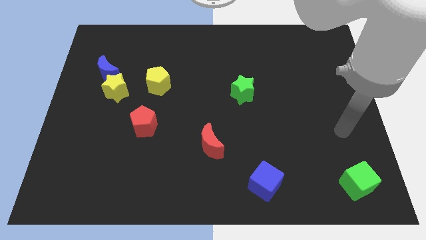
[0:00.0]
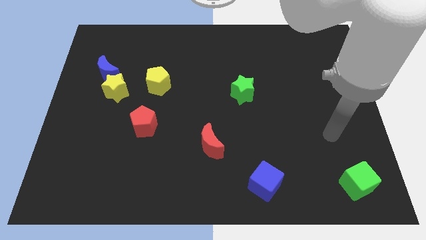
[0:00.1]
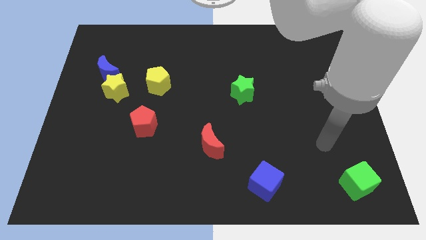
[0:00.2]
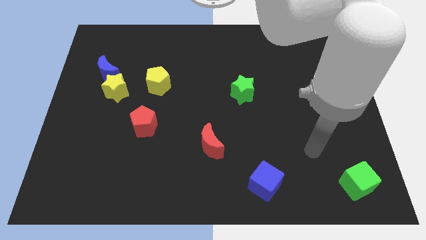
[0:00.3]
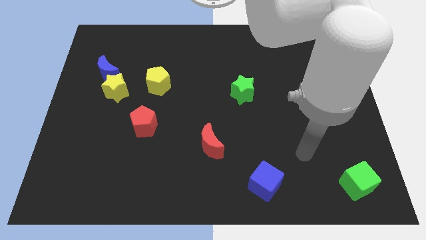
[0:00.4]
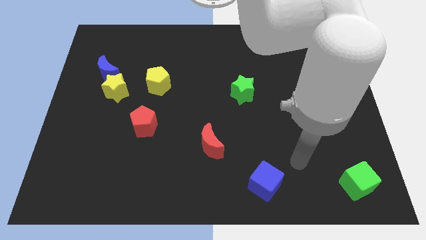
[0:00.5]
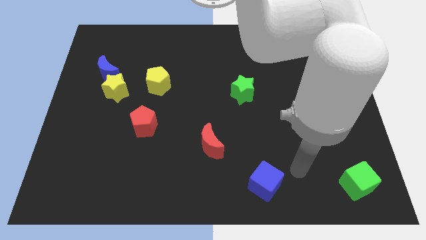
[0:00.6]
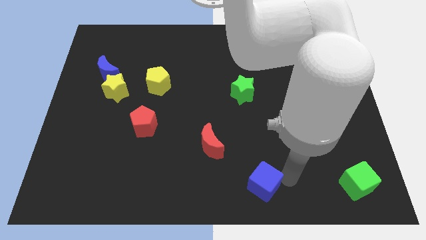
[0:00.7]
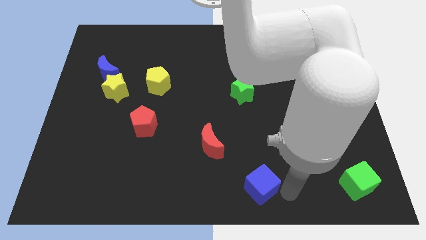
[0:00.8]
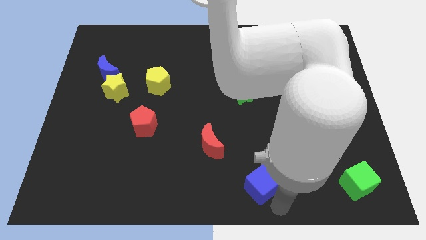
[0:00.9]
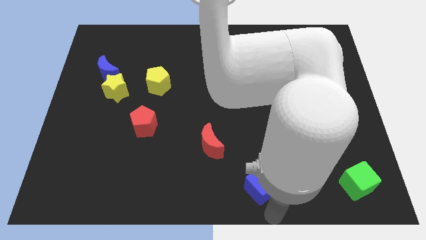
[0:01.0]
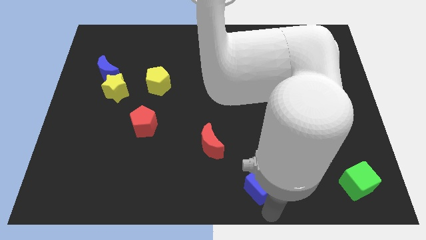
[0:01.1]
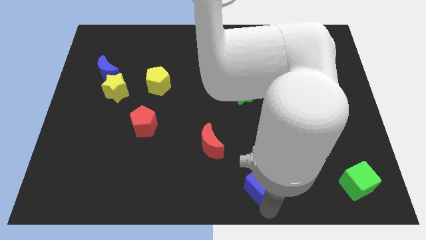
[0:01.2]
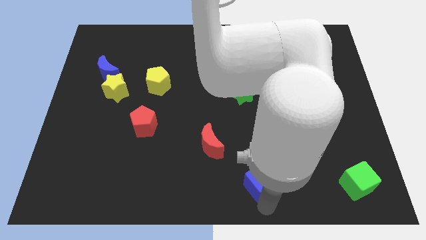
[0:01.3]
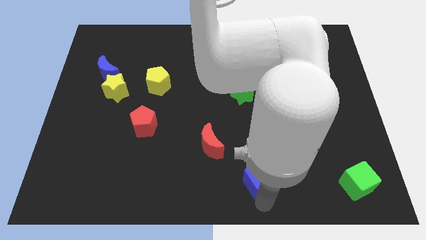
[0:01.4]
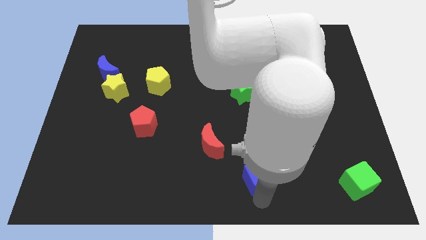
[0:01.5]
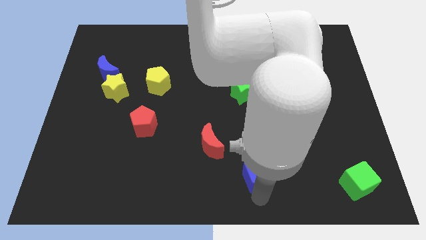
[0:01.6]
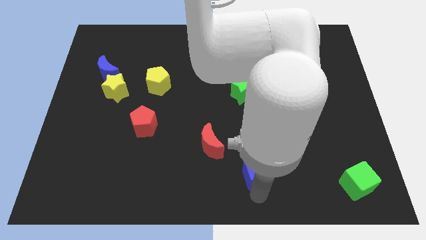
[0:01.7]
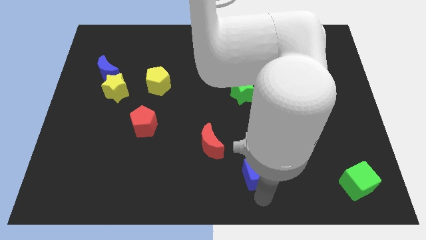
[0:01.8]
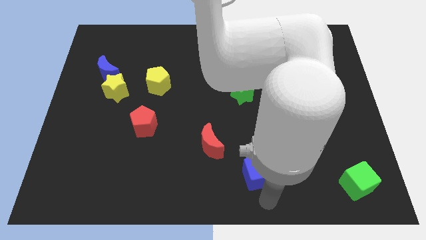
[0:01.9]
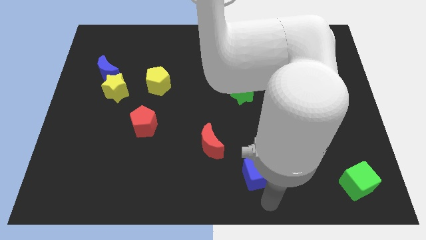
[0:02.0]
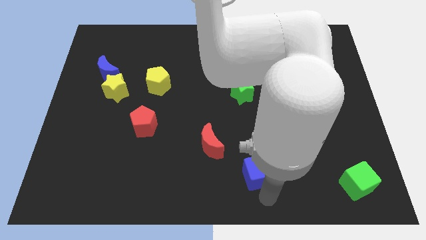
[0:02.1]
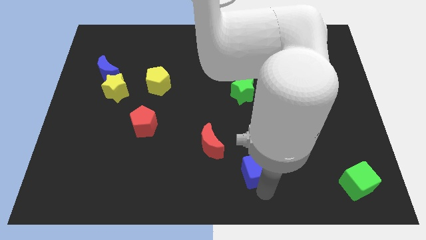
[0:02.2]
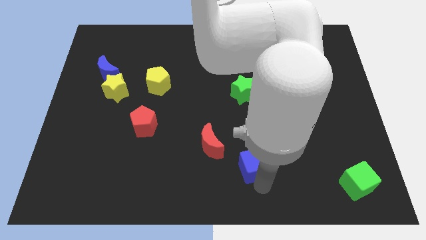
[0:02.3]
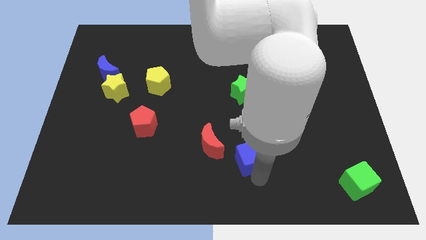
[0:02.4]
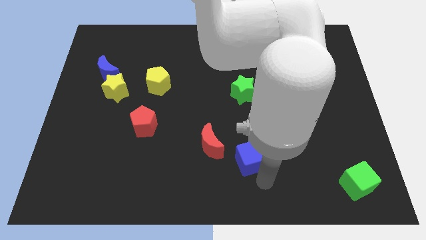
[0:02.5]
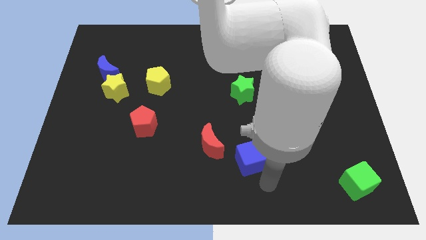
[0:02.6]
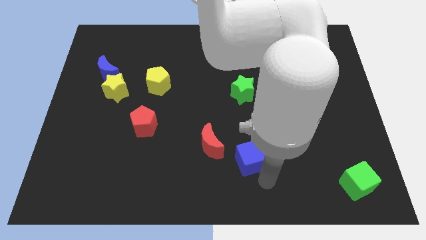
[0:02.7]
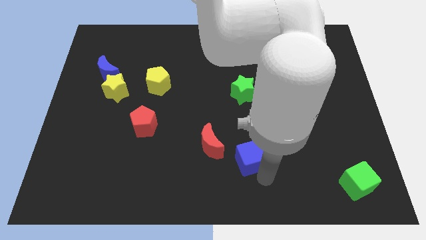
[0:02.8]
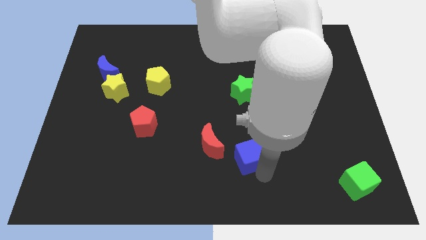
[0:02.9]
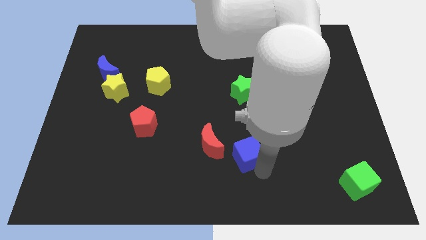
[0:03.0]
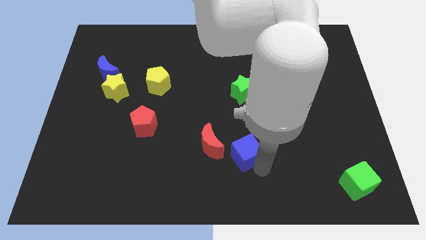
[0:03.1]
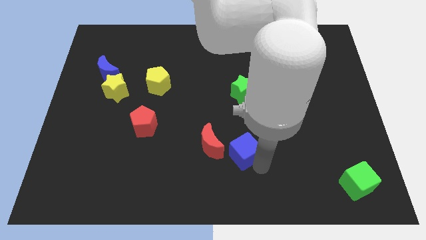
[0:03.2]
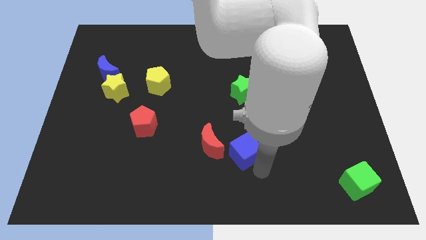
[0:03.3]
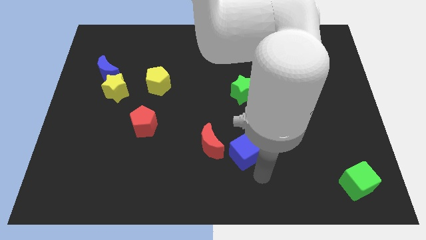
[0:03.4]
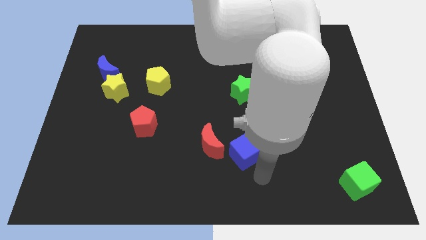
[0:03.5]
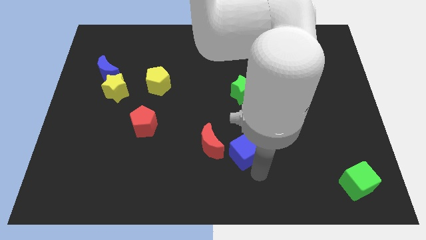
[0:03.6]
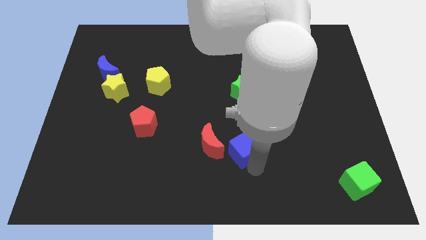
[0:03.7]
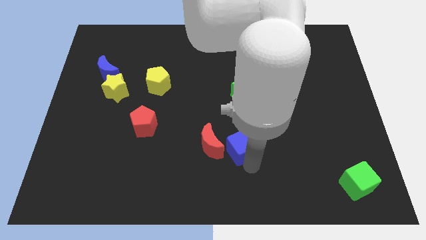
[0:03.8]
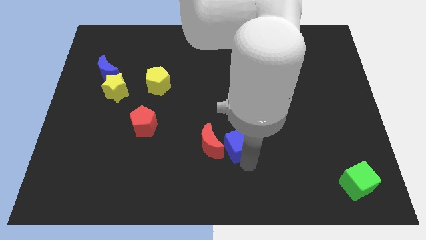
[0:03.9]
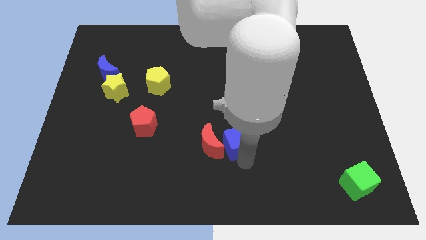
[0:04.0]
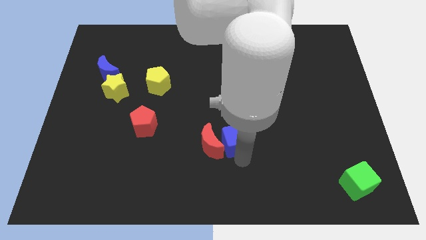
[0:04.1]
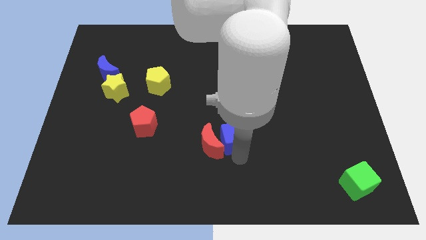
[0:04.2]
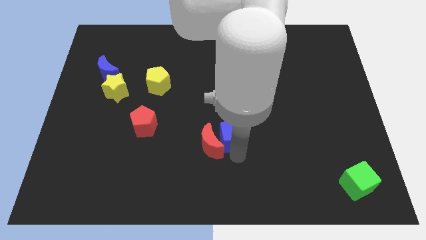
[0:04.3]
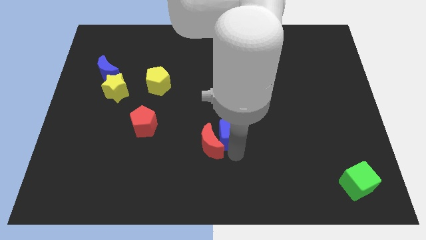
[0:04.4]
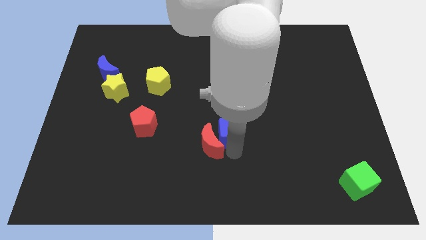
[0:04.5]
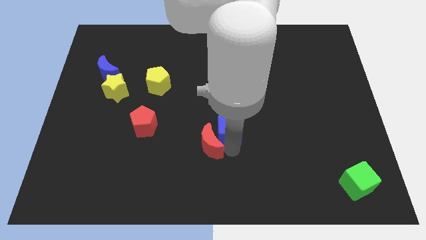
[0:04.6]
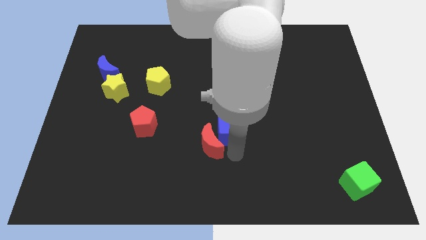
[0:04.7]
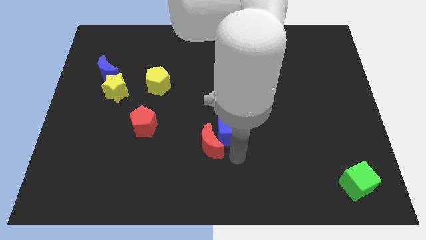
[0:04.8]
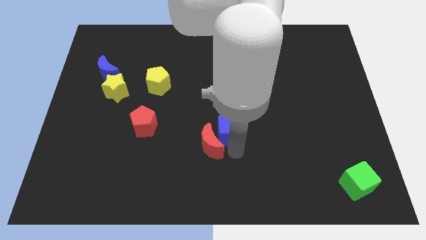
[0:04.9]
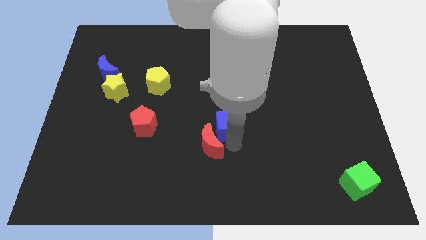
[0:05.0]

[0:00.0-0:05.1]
put the blue cube to the bottom left of the green star

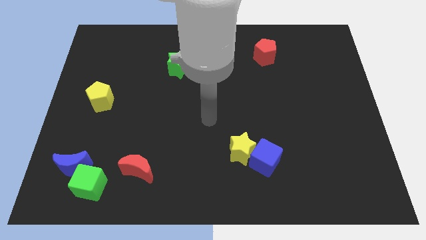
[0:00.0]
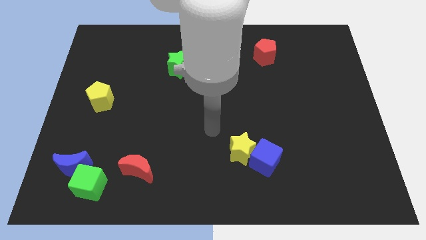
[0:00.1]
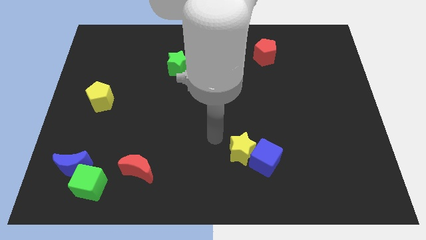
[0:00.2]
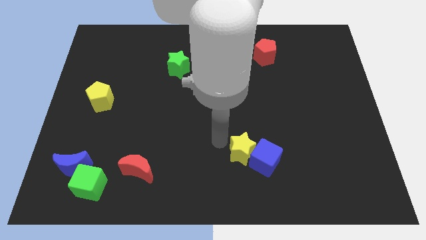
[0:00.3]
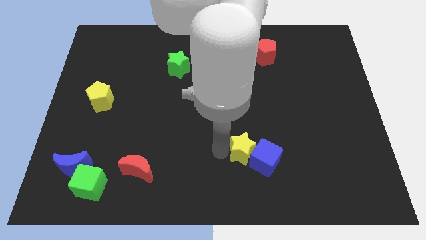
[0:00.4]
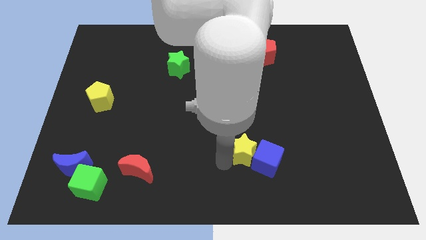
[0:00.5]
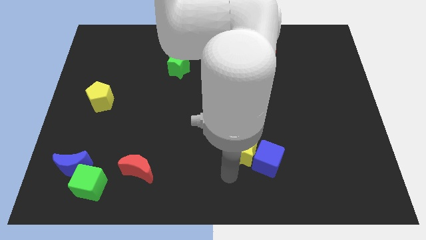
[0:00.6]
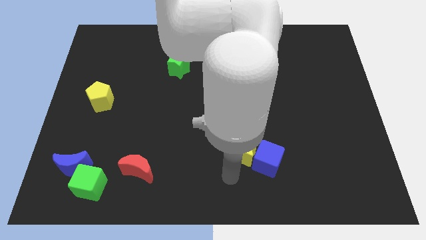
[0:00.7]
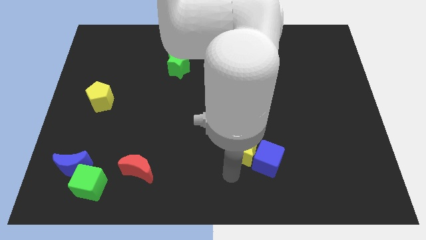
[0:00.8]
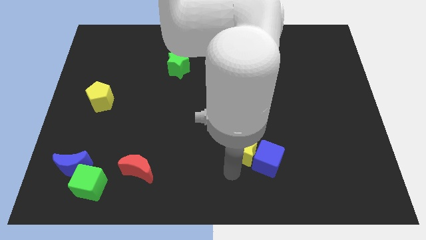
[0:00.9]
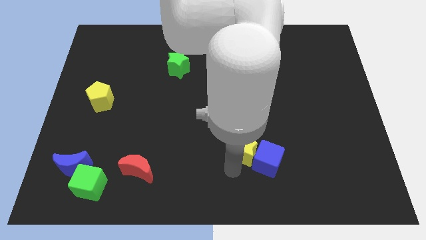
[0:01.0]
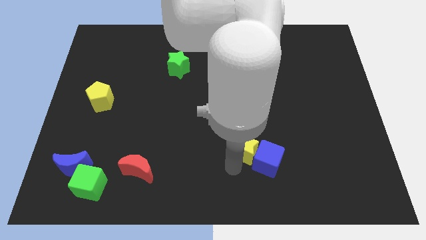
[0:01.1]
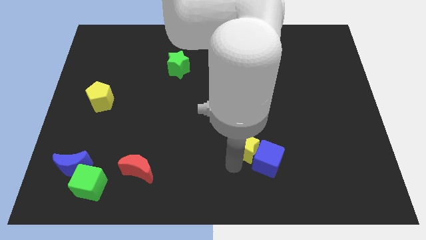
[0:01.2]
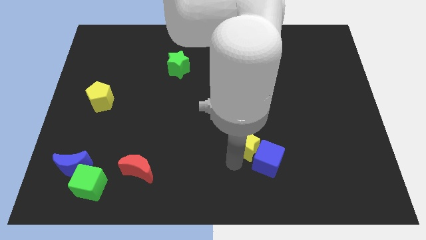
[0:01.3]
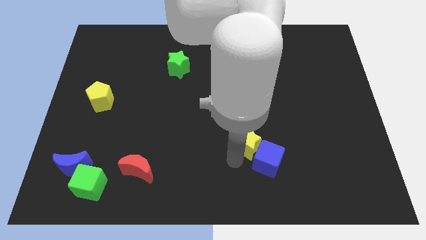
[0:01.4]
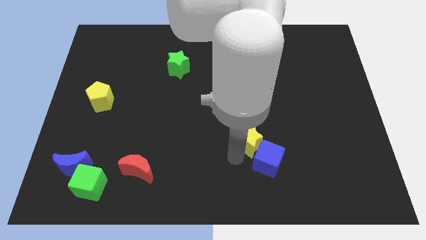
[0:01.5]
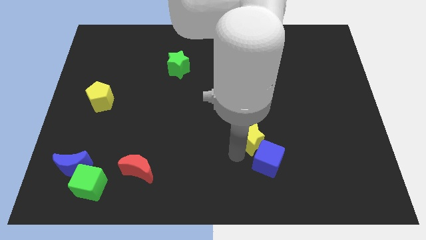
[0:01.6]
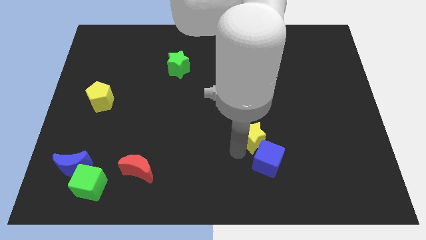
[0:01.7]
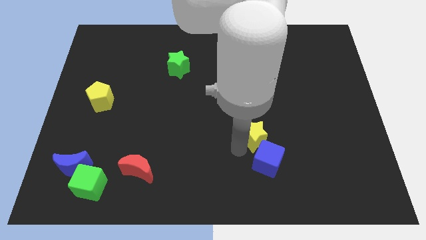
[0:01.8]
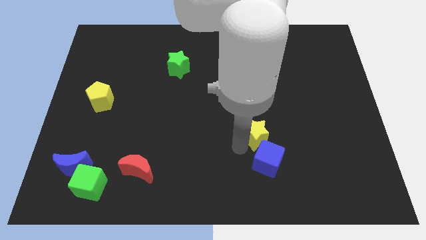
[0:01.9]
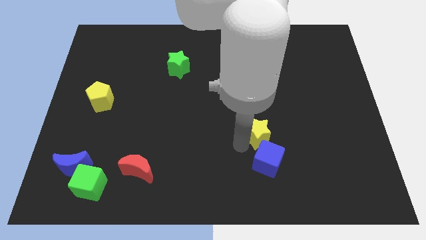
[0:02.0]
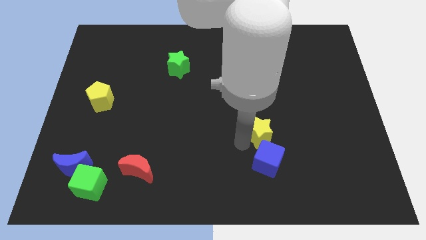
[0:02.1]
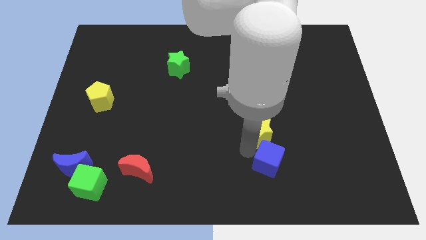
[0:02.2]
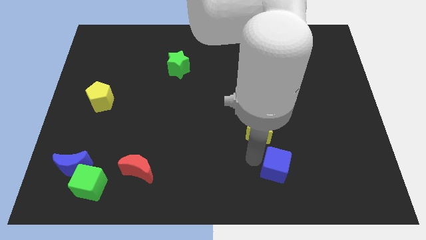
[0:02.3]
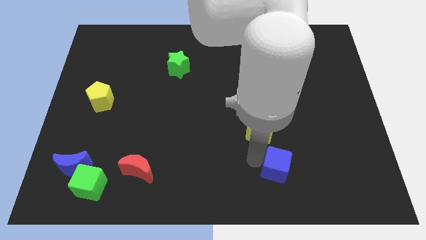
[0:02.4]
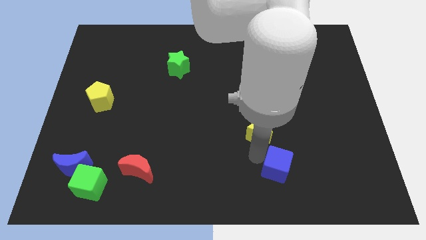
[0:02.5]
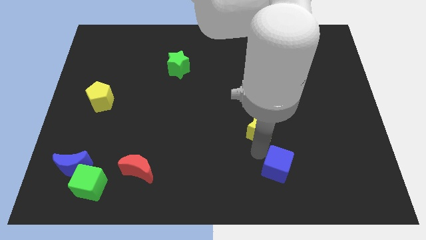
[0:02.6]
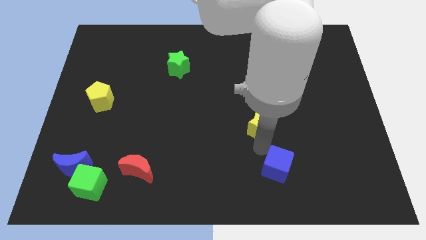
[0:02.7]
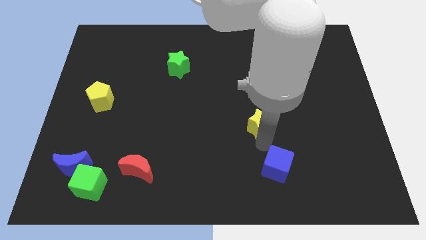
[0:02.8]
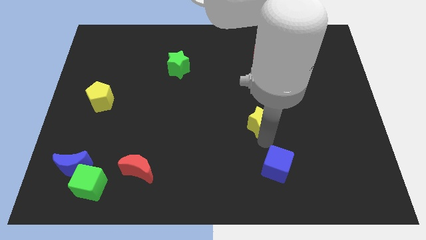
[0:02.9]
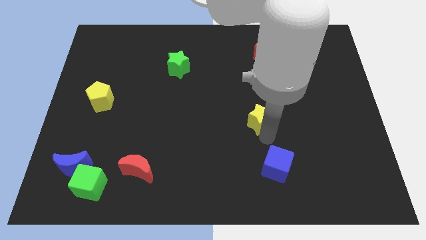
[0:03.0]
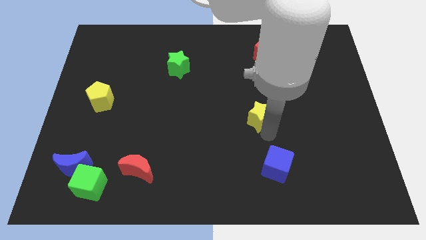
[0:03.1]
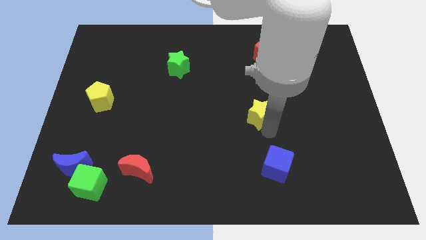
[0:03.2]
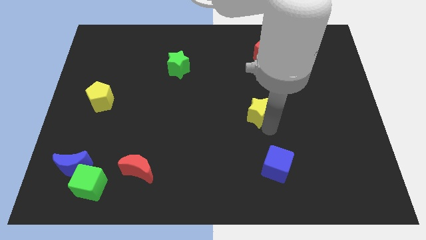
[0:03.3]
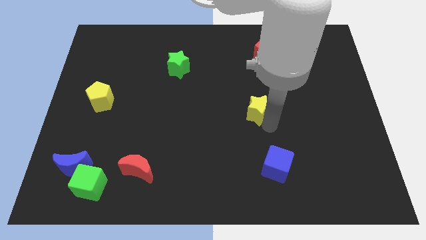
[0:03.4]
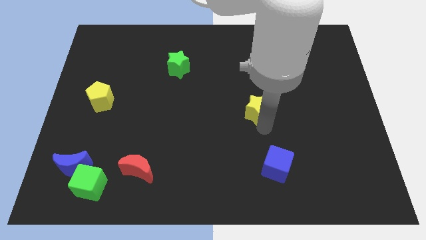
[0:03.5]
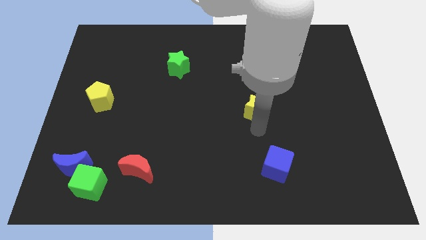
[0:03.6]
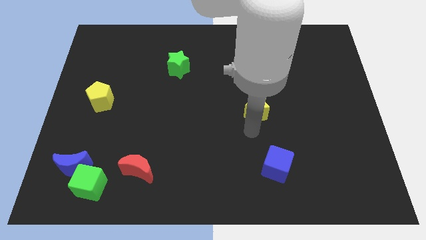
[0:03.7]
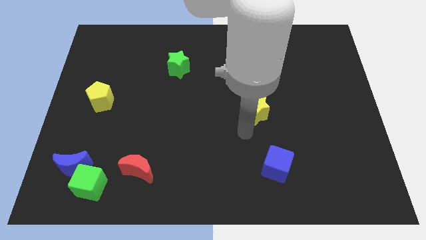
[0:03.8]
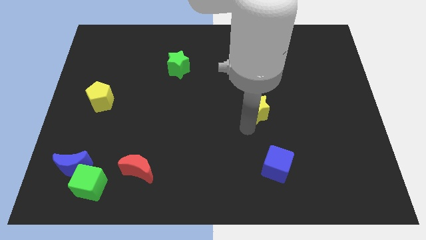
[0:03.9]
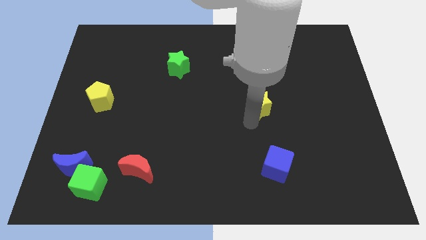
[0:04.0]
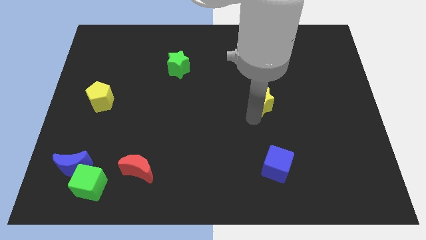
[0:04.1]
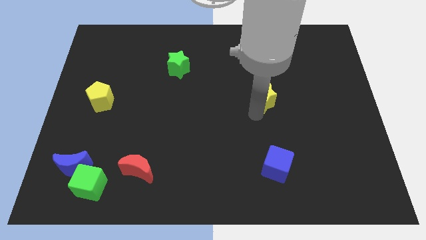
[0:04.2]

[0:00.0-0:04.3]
slide the yellow star to the bottom of the red pentagon
